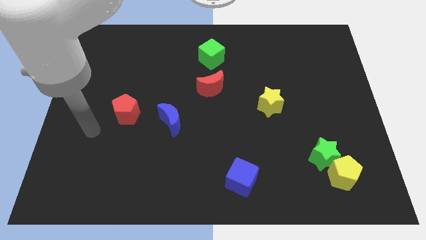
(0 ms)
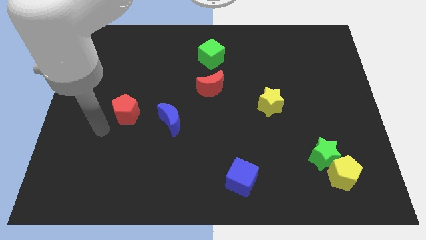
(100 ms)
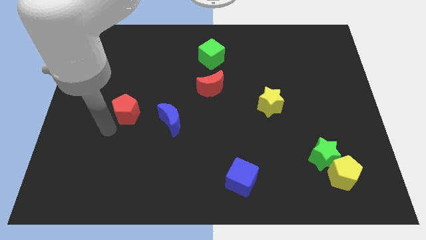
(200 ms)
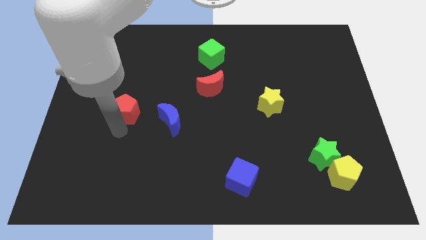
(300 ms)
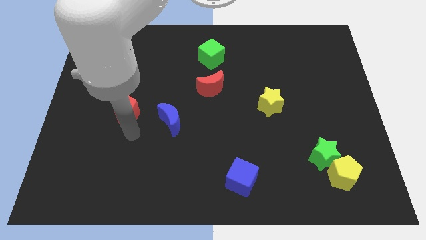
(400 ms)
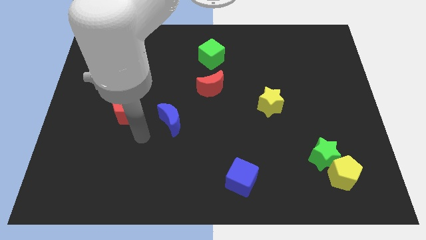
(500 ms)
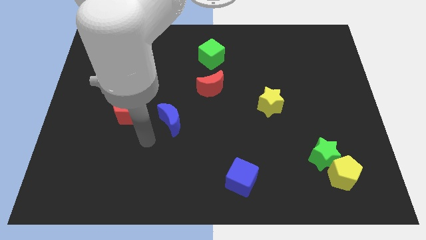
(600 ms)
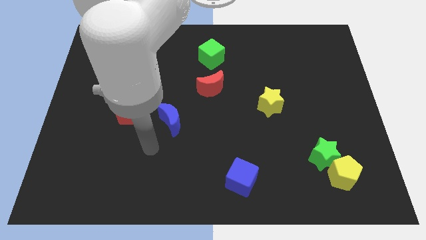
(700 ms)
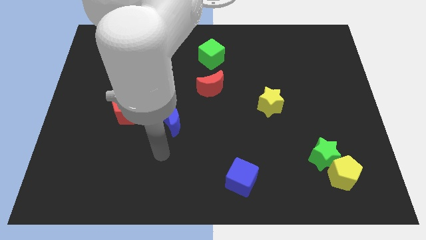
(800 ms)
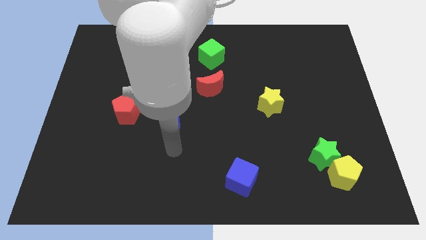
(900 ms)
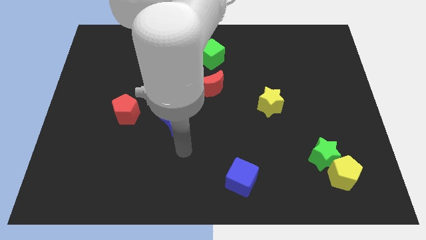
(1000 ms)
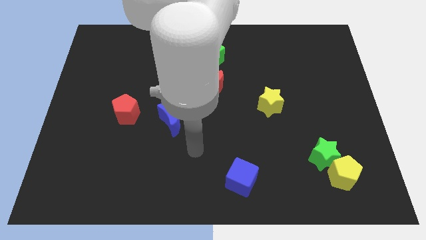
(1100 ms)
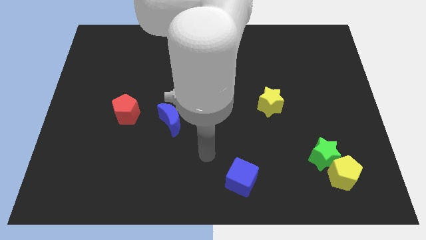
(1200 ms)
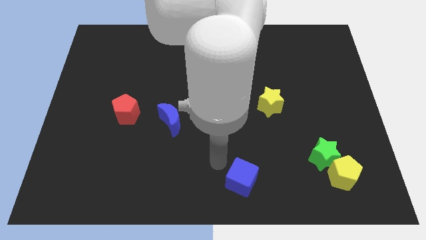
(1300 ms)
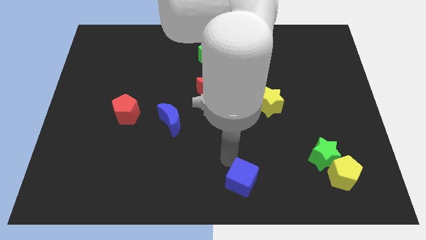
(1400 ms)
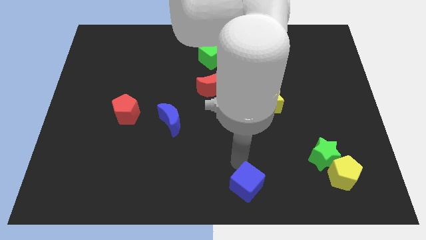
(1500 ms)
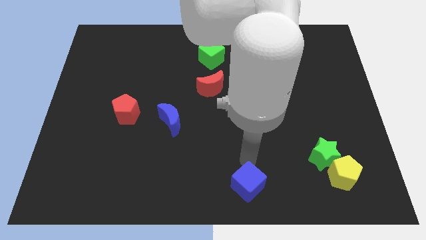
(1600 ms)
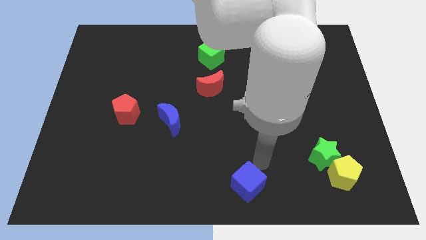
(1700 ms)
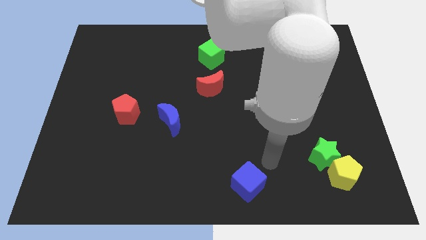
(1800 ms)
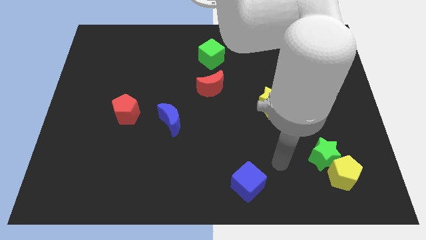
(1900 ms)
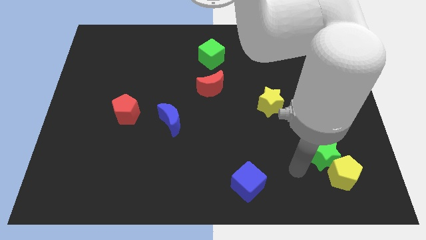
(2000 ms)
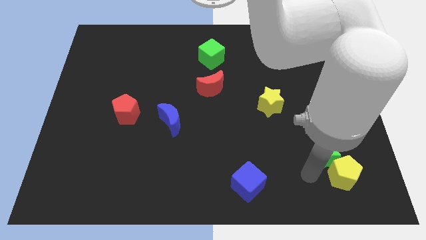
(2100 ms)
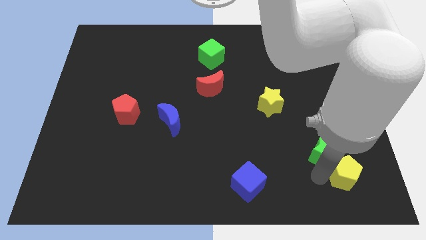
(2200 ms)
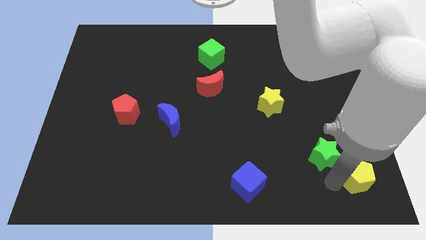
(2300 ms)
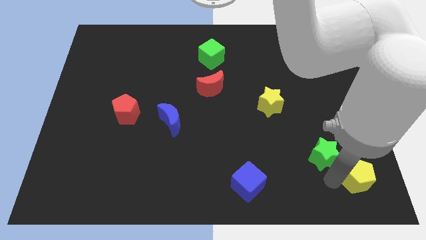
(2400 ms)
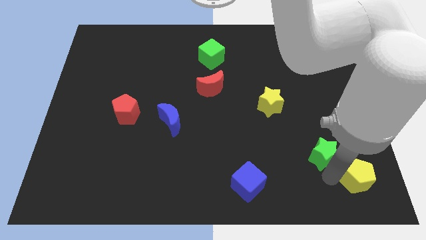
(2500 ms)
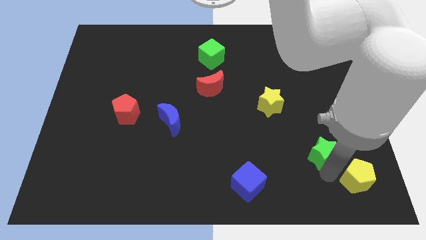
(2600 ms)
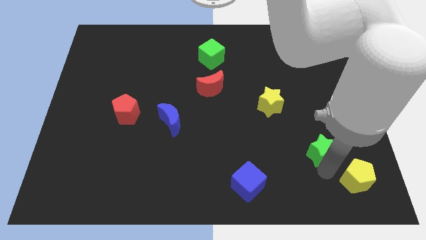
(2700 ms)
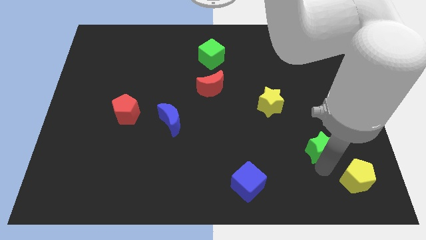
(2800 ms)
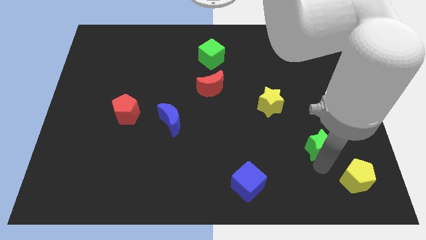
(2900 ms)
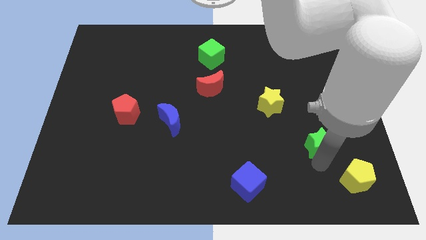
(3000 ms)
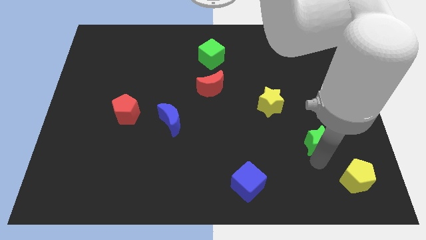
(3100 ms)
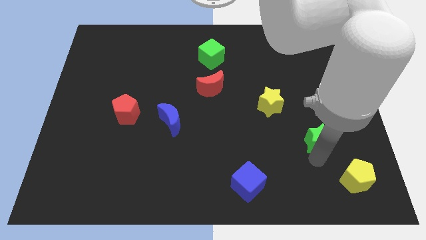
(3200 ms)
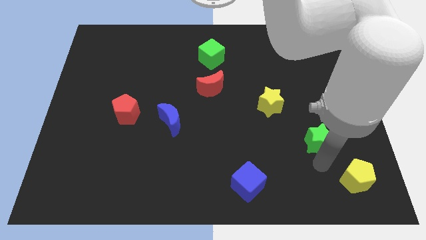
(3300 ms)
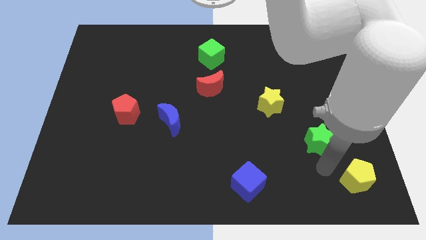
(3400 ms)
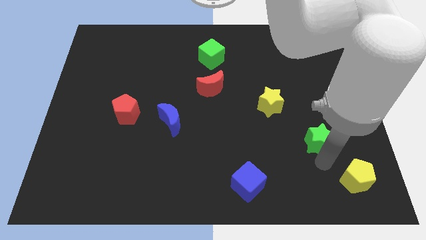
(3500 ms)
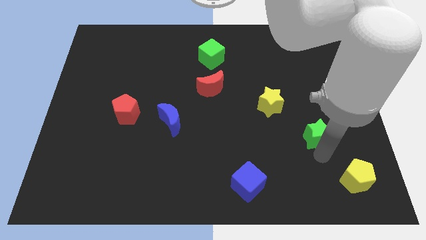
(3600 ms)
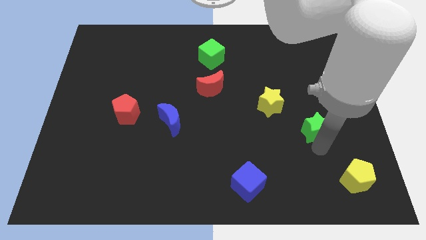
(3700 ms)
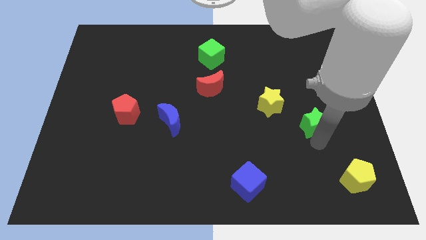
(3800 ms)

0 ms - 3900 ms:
slightly push the green star upwards

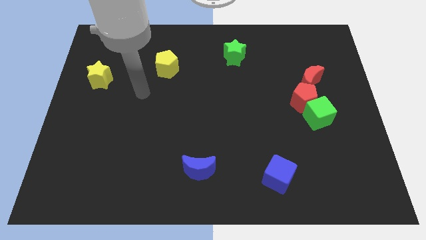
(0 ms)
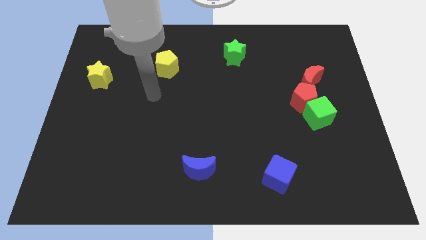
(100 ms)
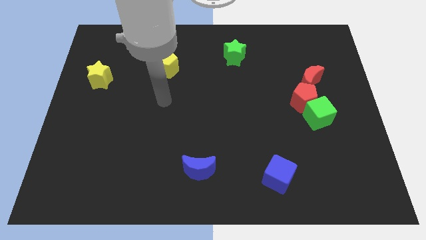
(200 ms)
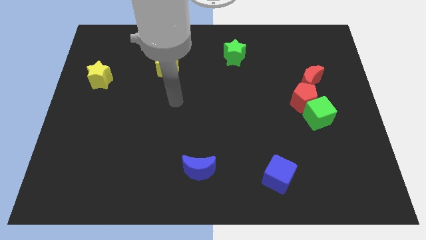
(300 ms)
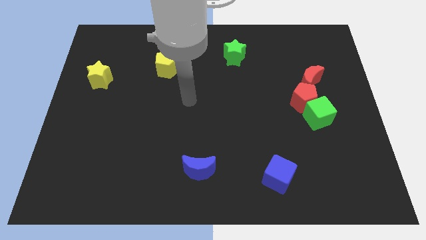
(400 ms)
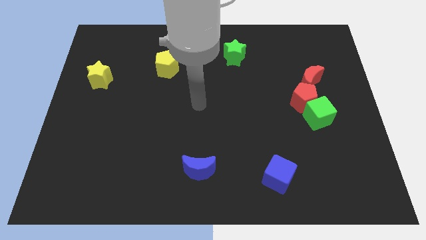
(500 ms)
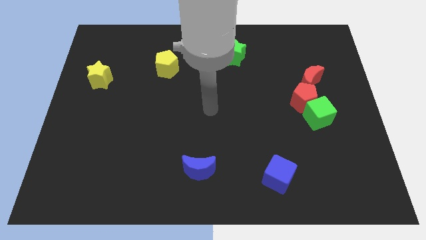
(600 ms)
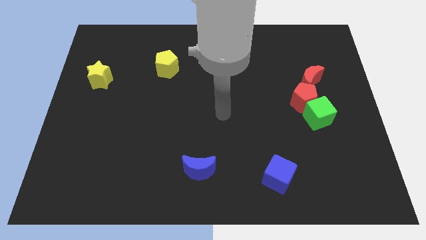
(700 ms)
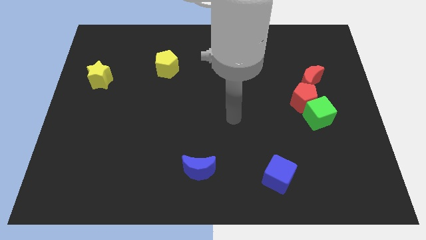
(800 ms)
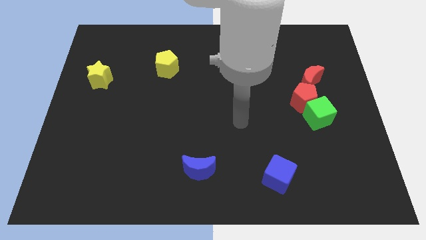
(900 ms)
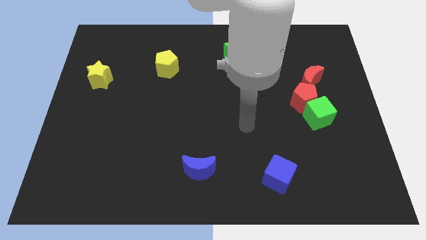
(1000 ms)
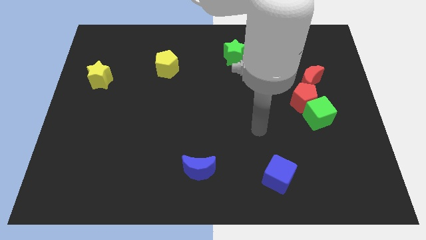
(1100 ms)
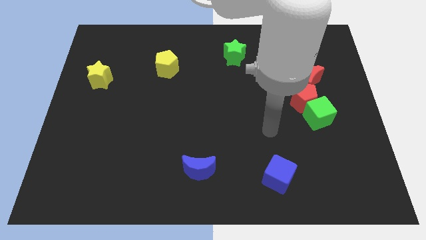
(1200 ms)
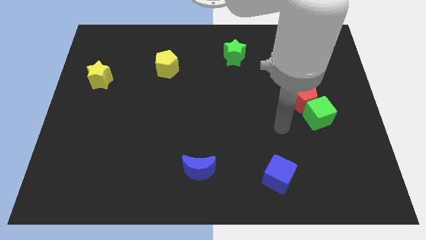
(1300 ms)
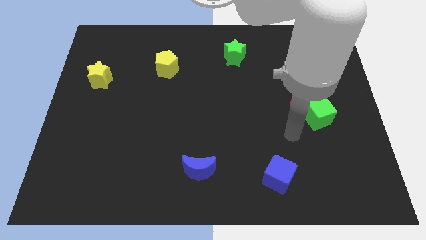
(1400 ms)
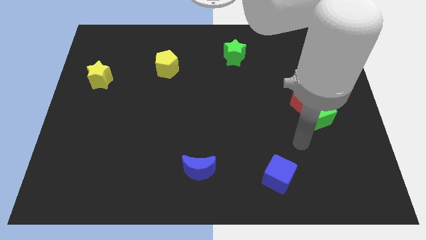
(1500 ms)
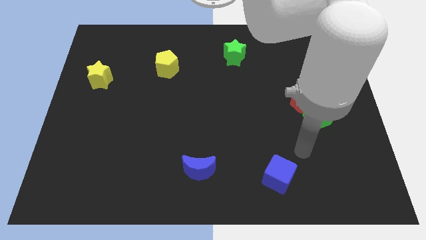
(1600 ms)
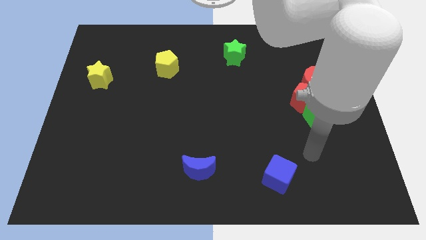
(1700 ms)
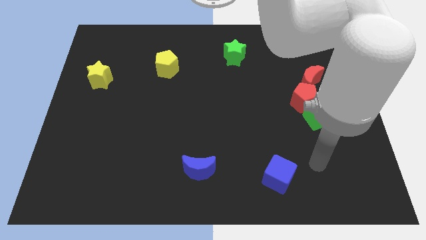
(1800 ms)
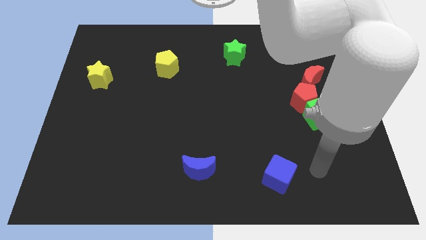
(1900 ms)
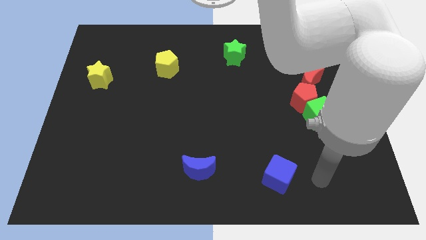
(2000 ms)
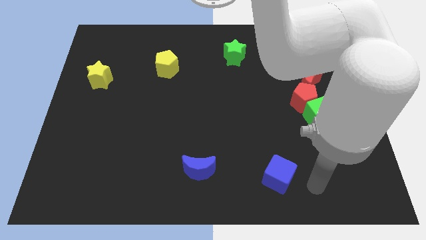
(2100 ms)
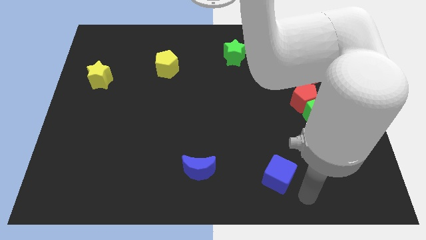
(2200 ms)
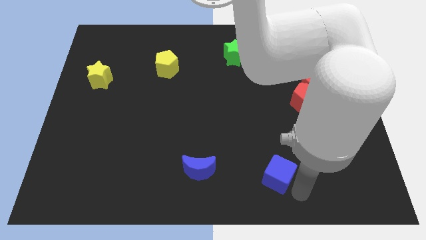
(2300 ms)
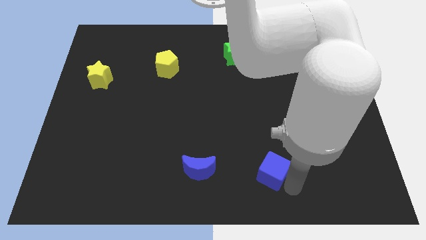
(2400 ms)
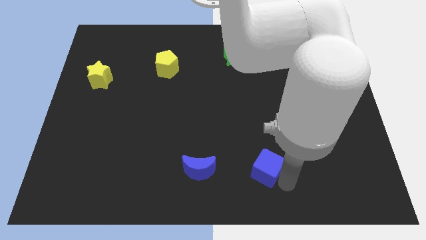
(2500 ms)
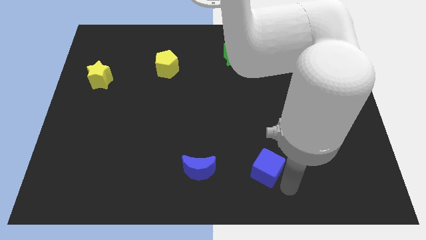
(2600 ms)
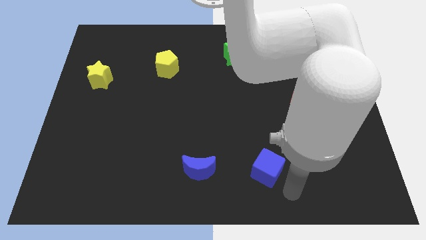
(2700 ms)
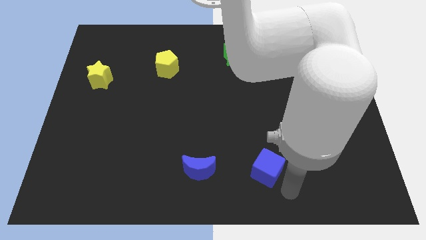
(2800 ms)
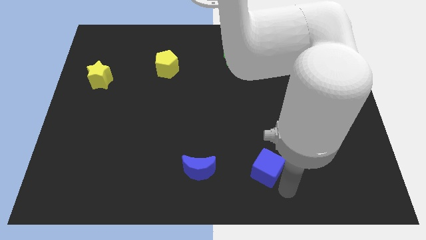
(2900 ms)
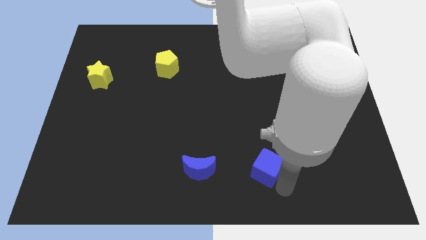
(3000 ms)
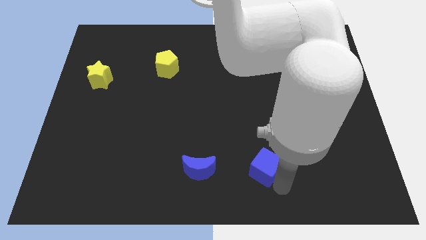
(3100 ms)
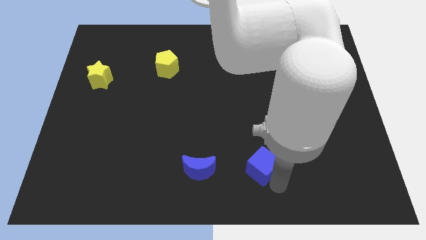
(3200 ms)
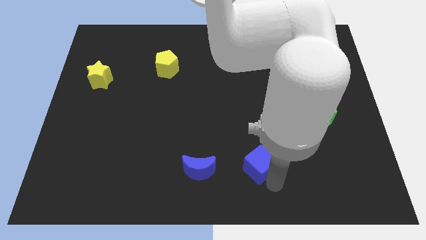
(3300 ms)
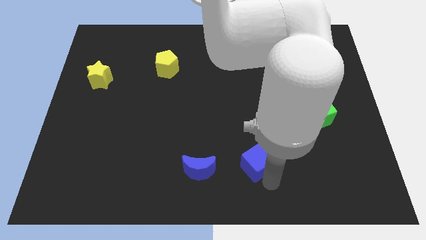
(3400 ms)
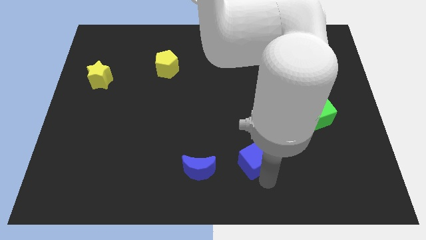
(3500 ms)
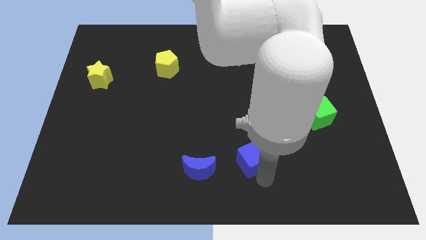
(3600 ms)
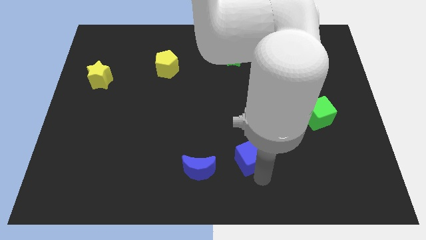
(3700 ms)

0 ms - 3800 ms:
push the blue cube somewhat upwards and then left

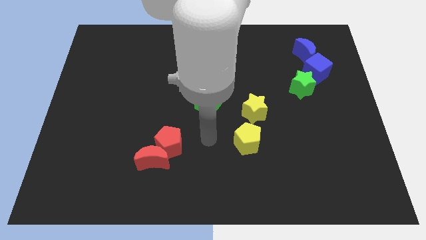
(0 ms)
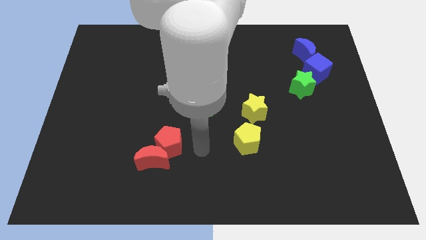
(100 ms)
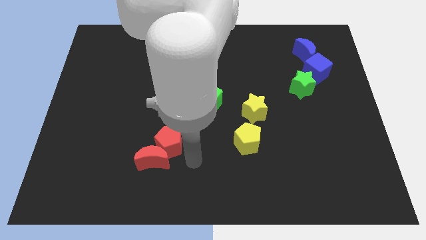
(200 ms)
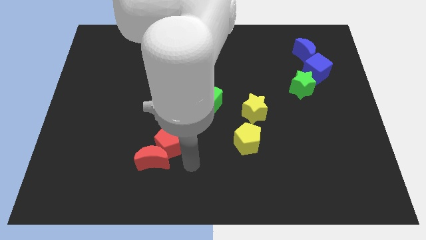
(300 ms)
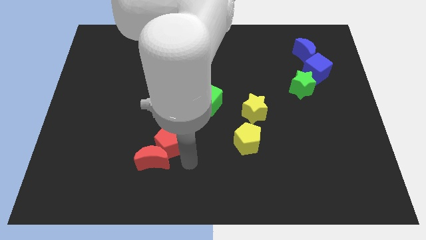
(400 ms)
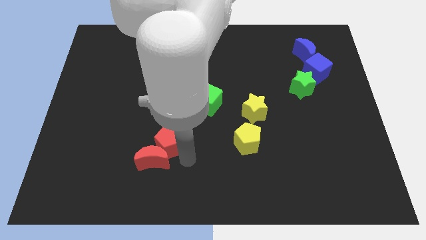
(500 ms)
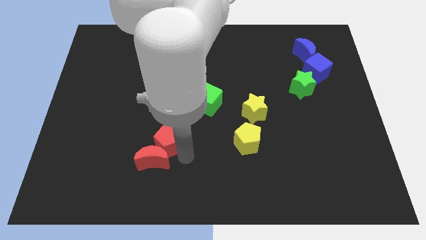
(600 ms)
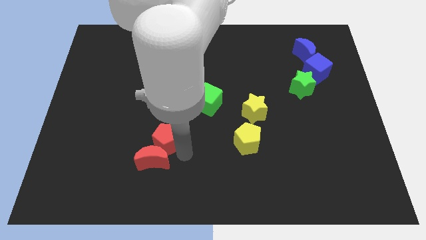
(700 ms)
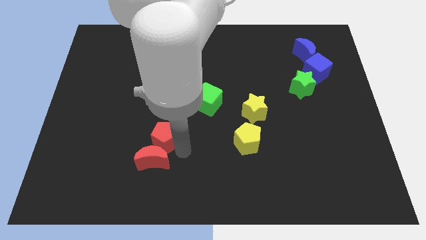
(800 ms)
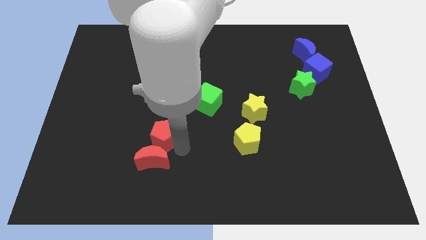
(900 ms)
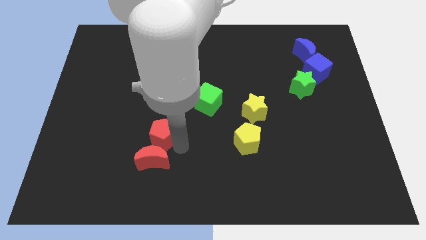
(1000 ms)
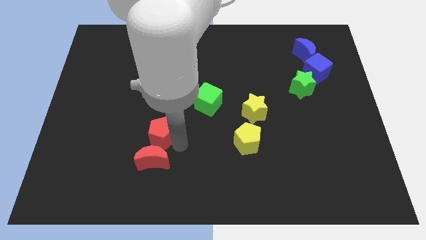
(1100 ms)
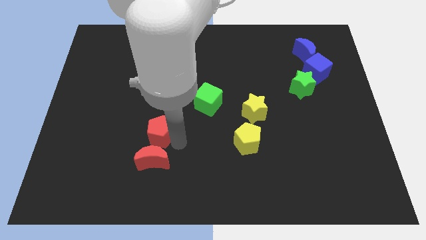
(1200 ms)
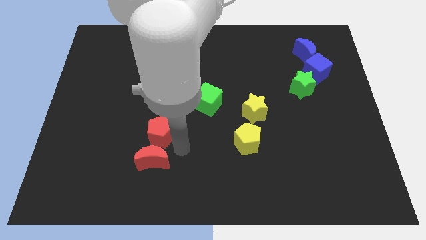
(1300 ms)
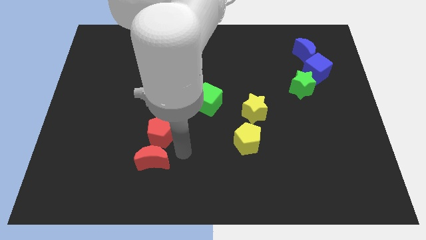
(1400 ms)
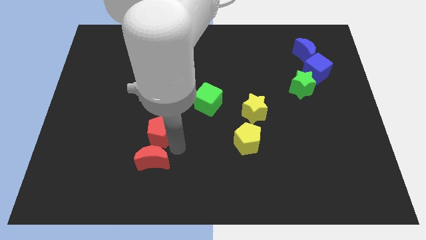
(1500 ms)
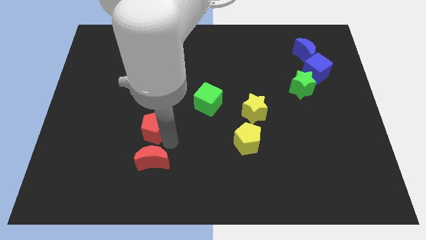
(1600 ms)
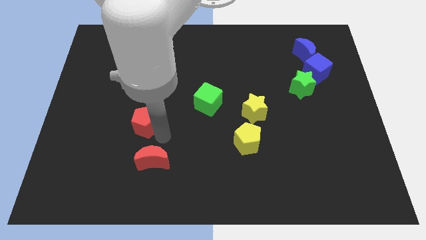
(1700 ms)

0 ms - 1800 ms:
move the red pentagon a little diagonally up and to the left
